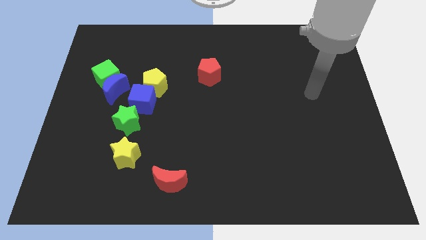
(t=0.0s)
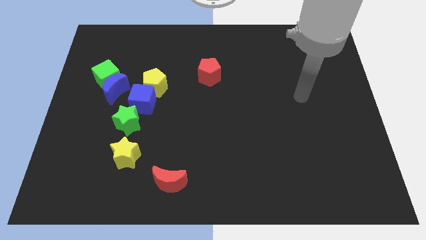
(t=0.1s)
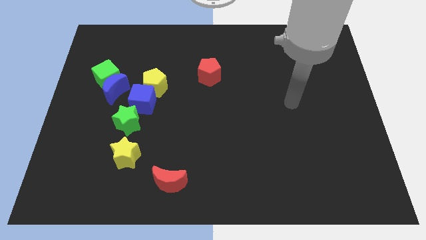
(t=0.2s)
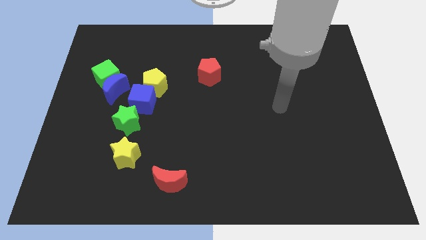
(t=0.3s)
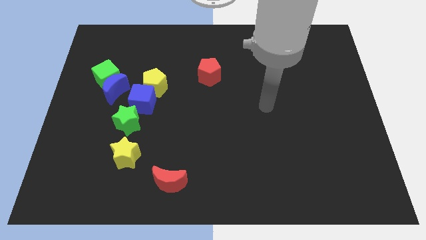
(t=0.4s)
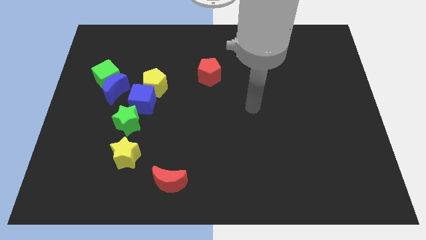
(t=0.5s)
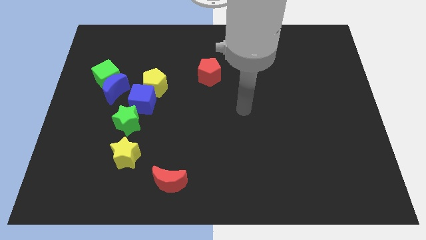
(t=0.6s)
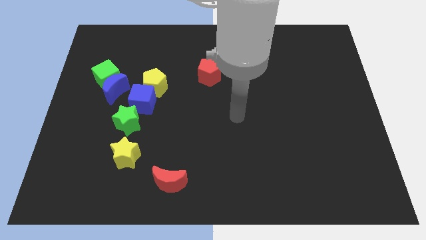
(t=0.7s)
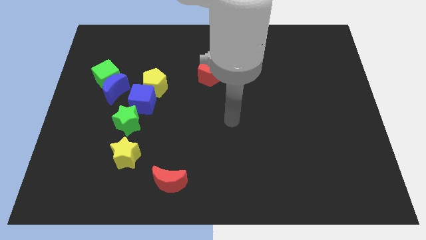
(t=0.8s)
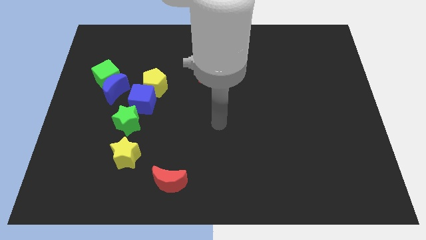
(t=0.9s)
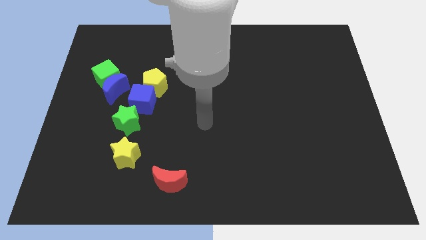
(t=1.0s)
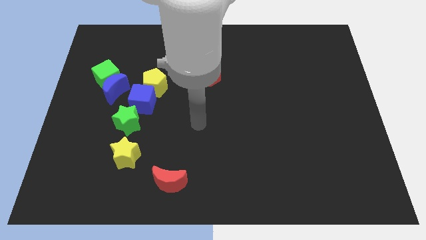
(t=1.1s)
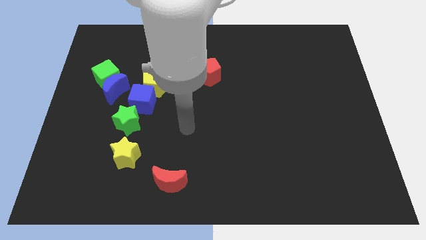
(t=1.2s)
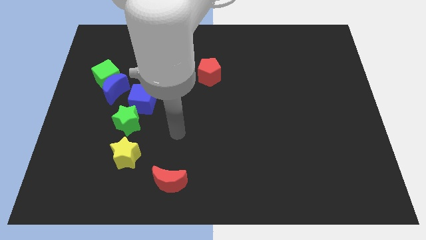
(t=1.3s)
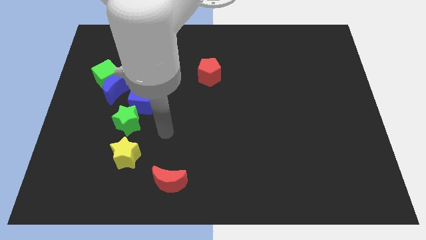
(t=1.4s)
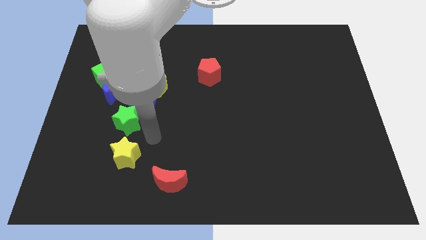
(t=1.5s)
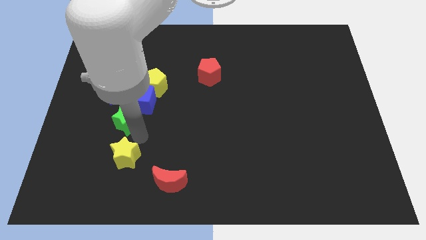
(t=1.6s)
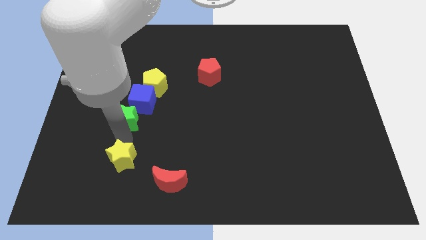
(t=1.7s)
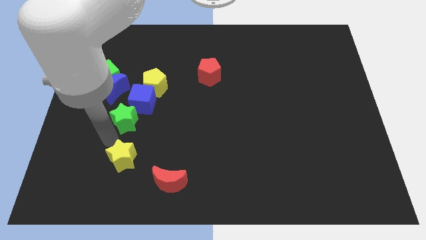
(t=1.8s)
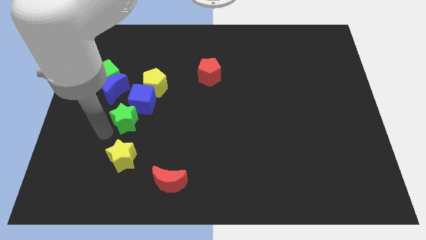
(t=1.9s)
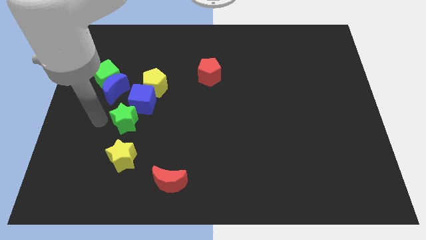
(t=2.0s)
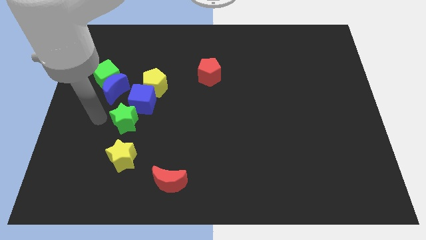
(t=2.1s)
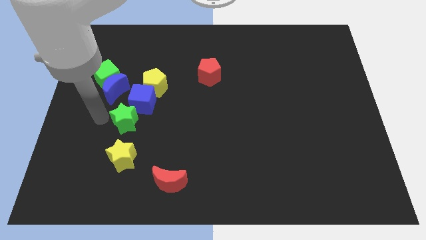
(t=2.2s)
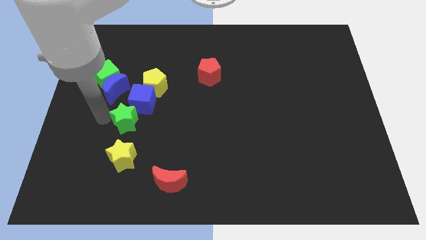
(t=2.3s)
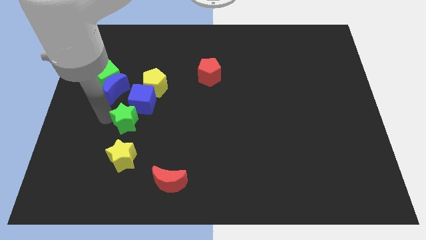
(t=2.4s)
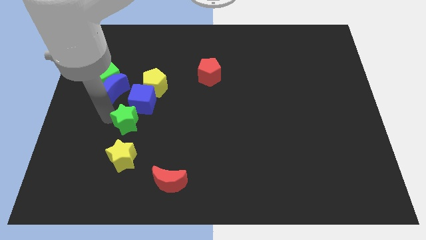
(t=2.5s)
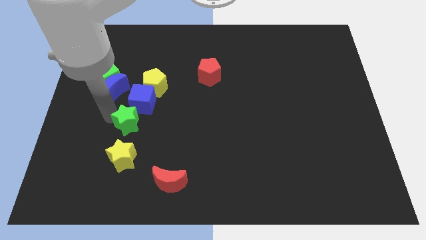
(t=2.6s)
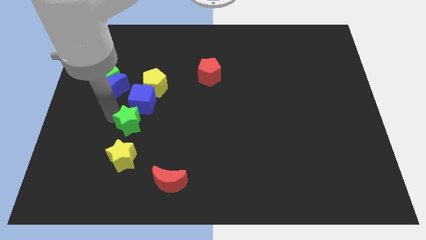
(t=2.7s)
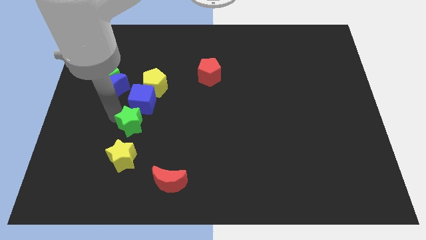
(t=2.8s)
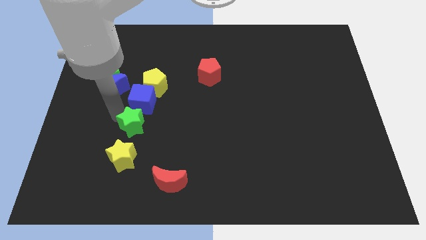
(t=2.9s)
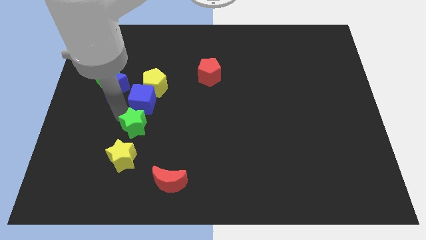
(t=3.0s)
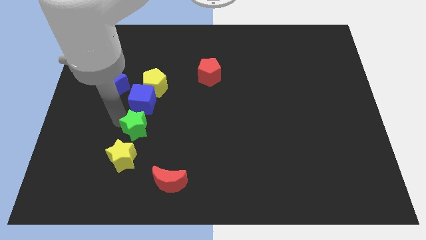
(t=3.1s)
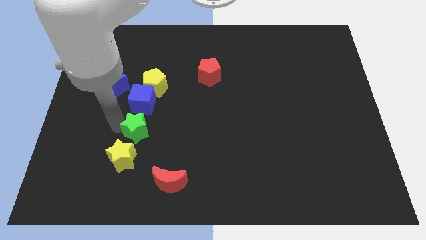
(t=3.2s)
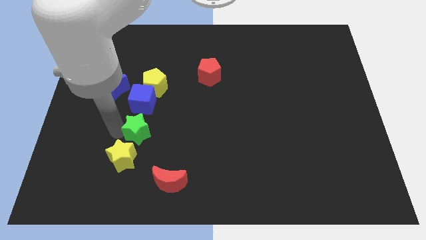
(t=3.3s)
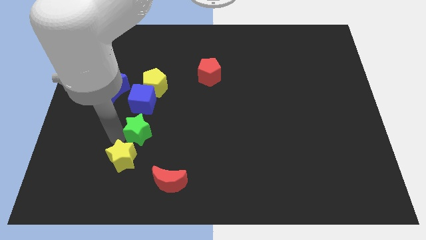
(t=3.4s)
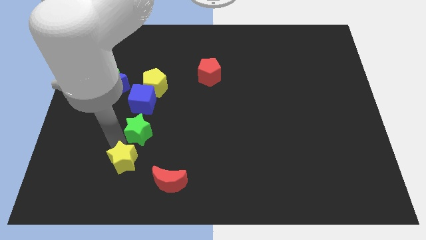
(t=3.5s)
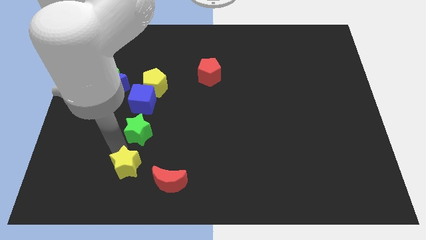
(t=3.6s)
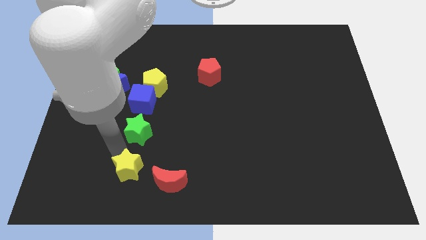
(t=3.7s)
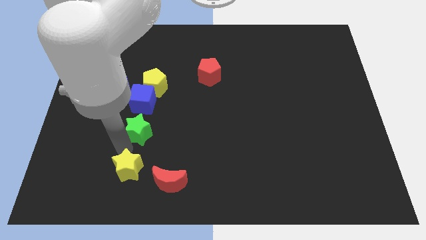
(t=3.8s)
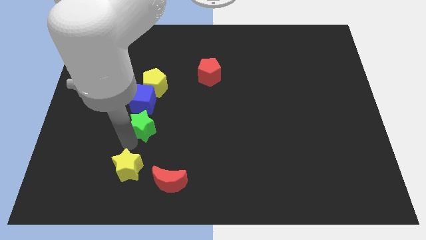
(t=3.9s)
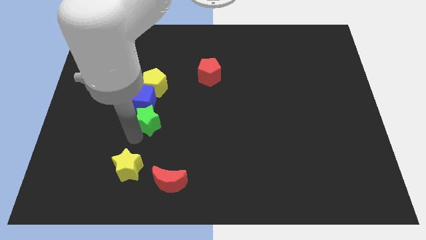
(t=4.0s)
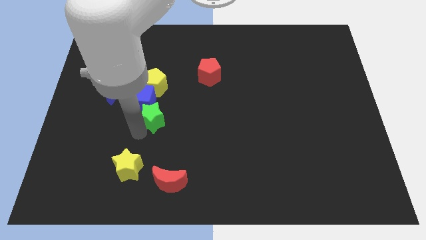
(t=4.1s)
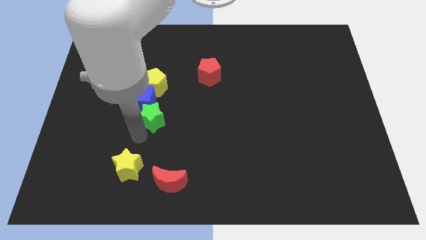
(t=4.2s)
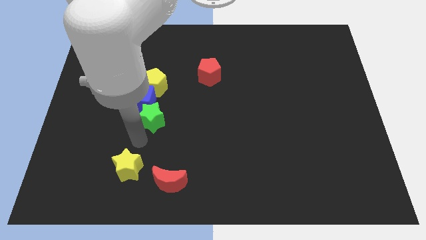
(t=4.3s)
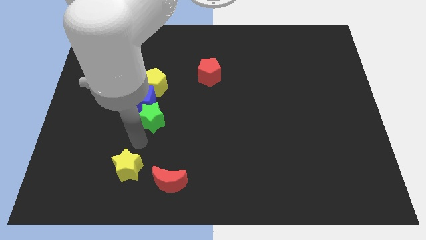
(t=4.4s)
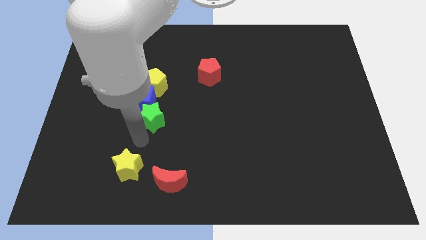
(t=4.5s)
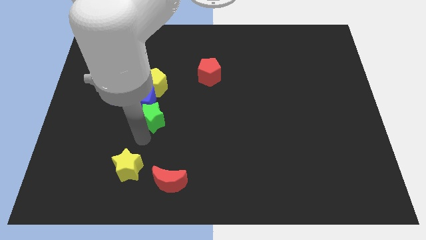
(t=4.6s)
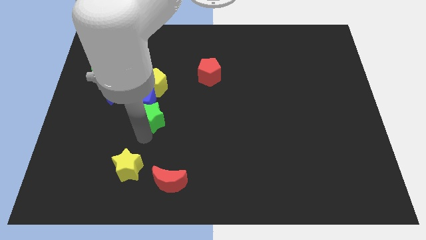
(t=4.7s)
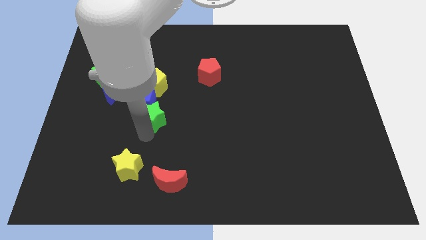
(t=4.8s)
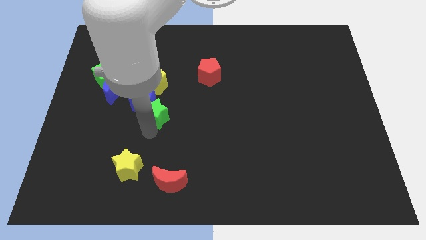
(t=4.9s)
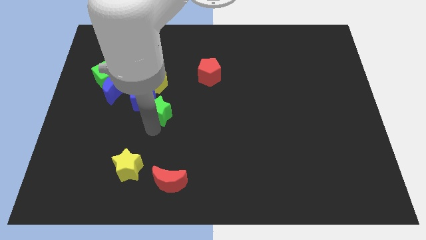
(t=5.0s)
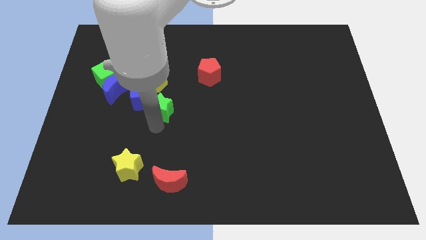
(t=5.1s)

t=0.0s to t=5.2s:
slide the green star up and right a little

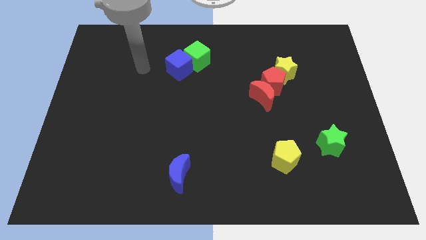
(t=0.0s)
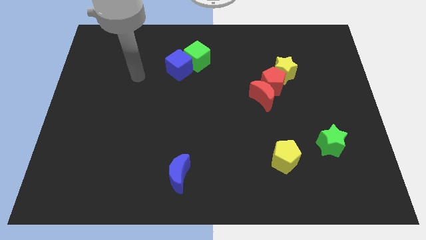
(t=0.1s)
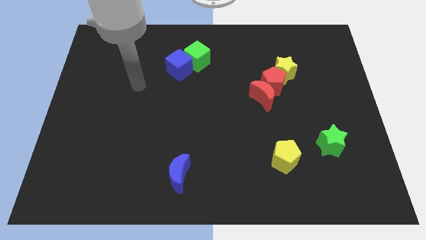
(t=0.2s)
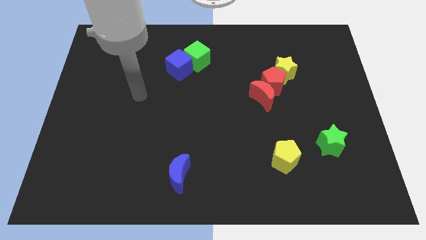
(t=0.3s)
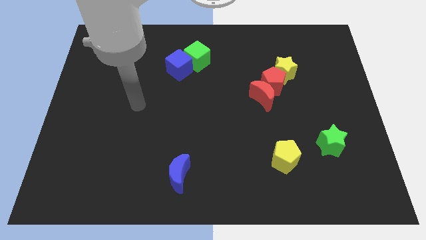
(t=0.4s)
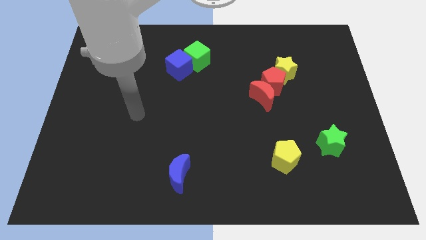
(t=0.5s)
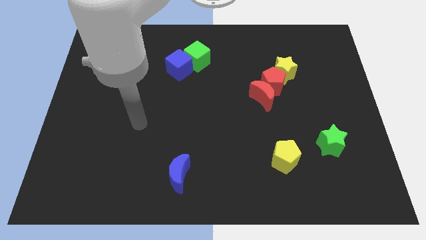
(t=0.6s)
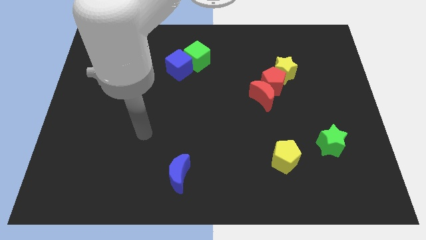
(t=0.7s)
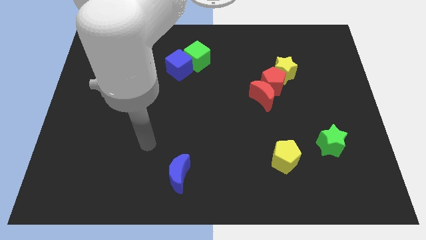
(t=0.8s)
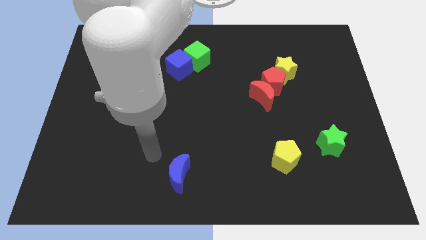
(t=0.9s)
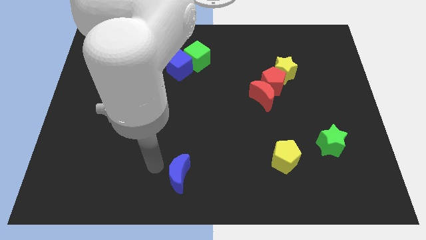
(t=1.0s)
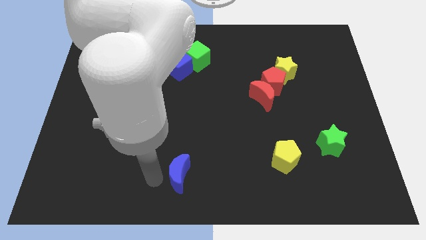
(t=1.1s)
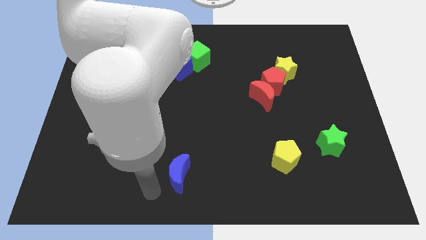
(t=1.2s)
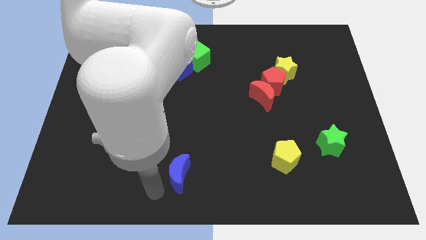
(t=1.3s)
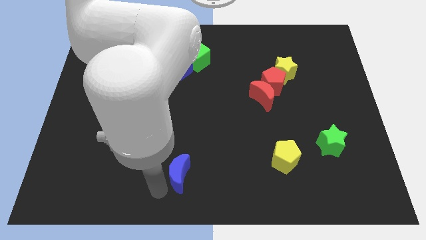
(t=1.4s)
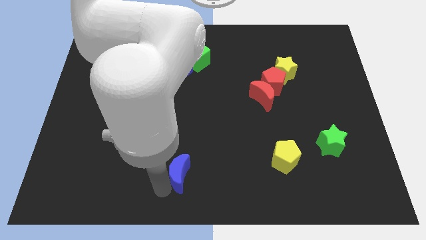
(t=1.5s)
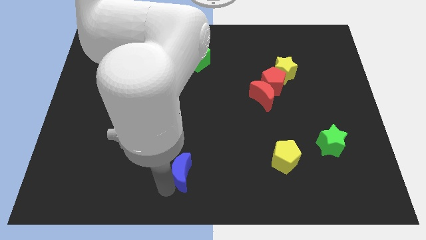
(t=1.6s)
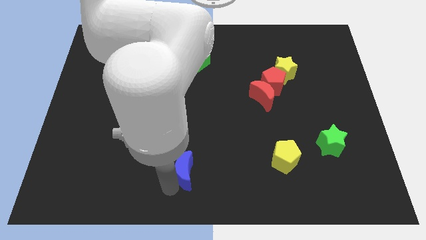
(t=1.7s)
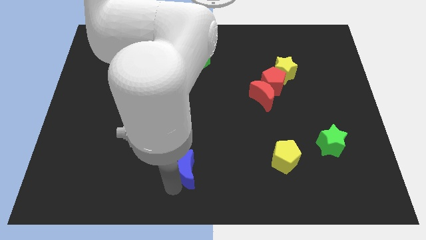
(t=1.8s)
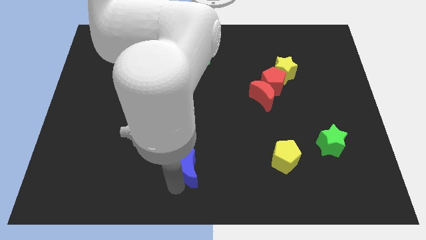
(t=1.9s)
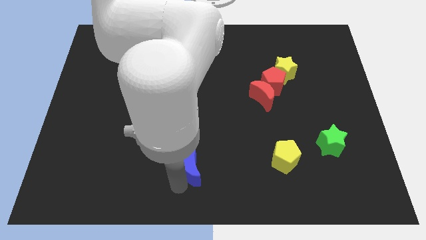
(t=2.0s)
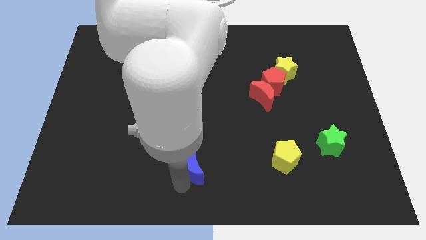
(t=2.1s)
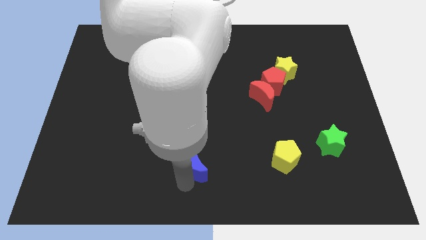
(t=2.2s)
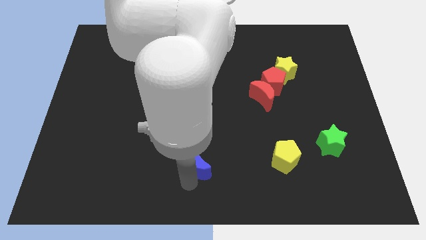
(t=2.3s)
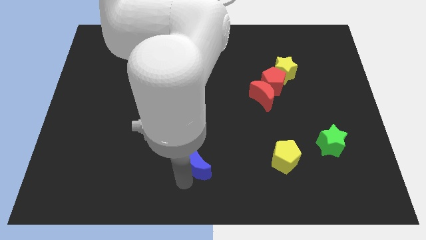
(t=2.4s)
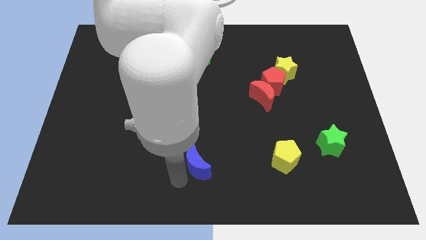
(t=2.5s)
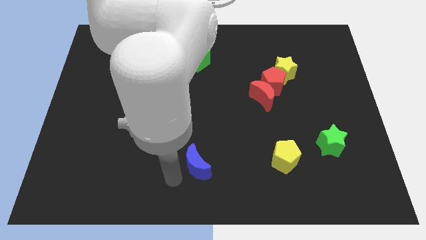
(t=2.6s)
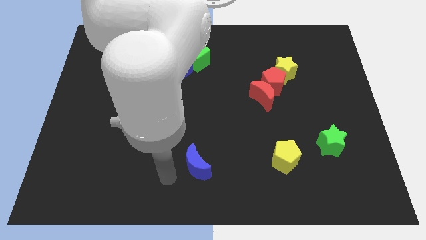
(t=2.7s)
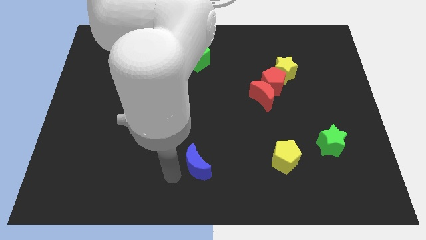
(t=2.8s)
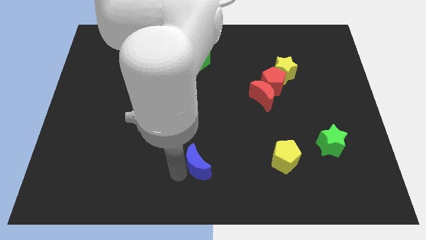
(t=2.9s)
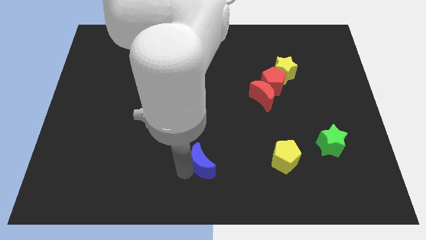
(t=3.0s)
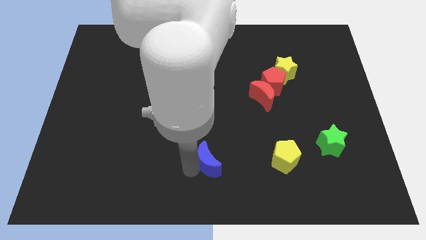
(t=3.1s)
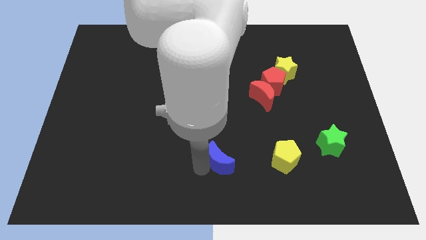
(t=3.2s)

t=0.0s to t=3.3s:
slightly slide the blue moon up and then to the right
